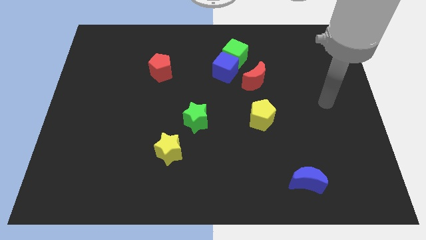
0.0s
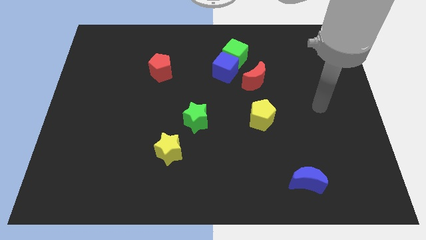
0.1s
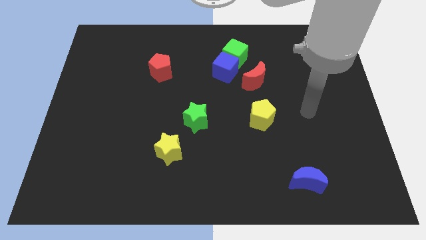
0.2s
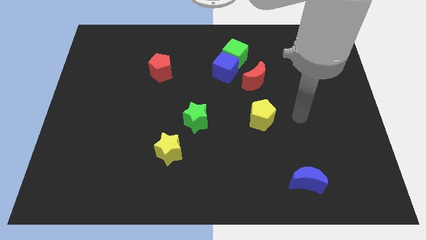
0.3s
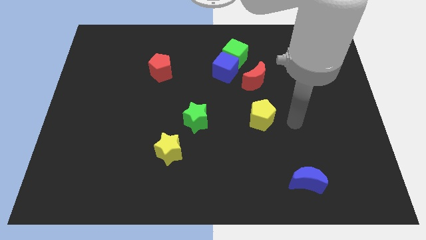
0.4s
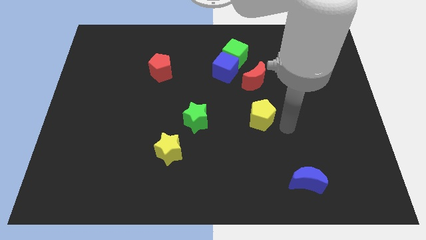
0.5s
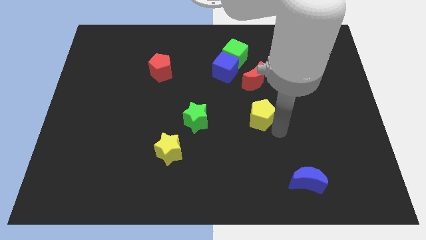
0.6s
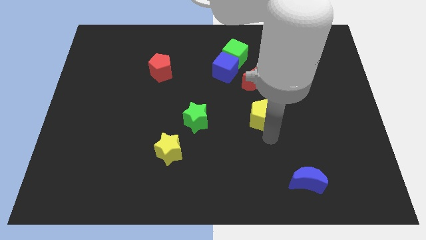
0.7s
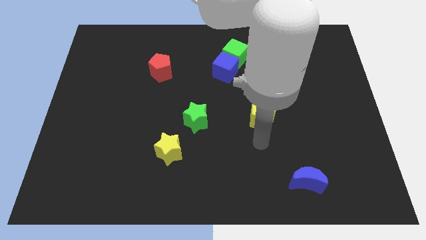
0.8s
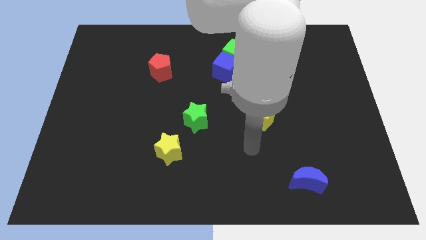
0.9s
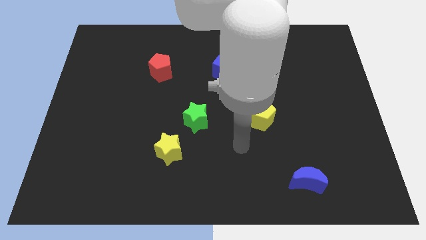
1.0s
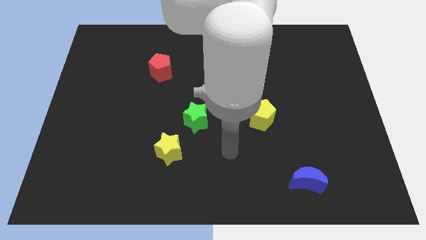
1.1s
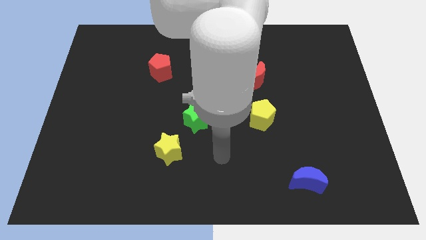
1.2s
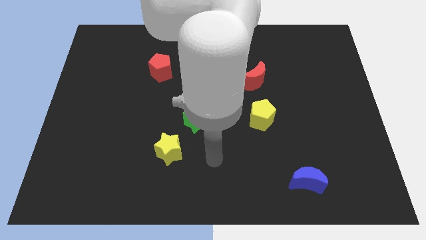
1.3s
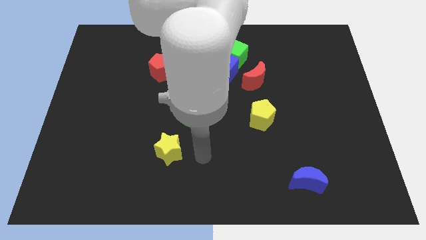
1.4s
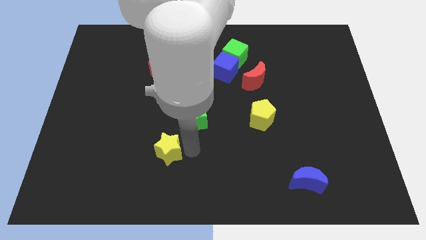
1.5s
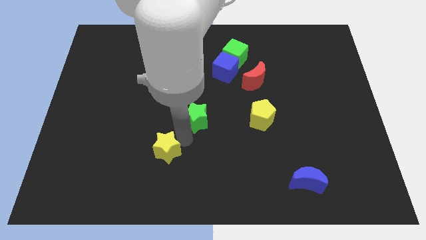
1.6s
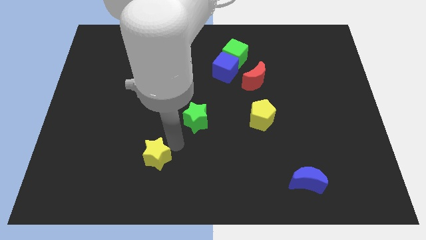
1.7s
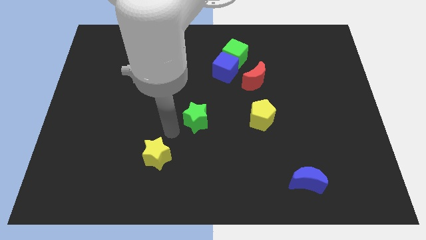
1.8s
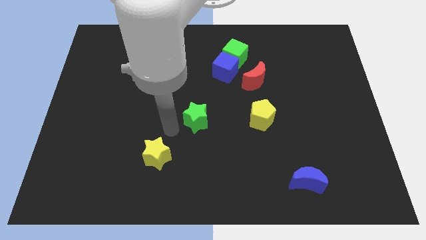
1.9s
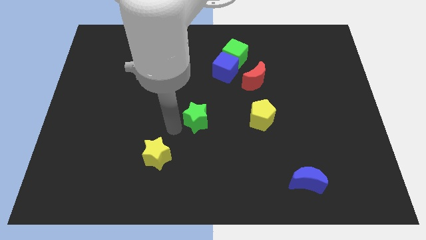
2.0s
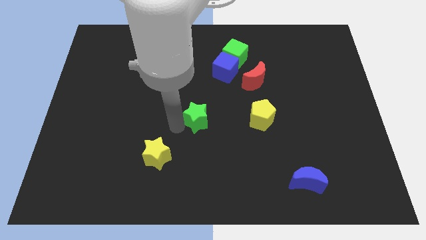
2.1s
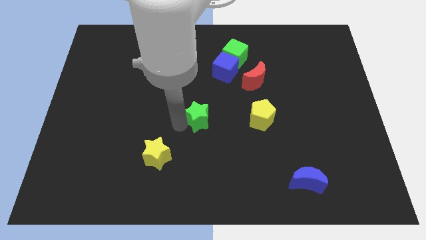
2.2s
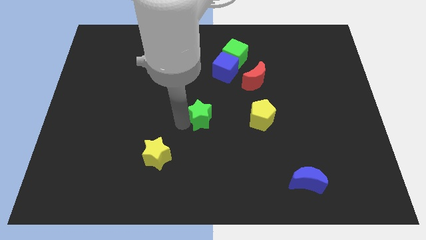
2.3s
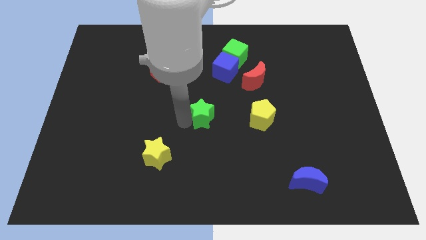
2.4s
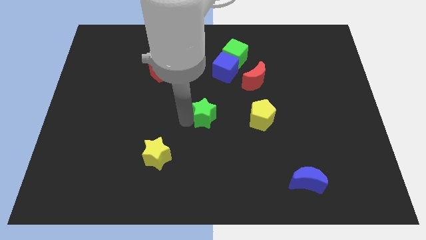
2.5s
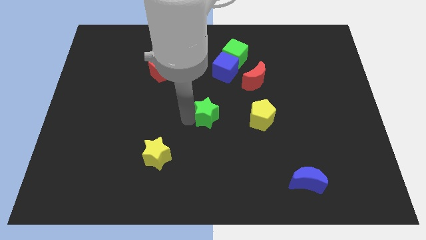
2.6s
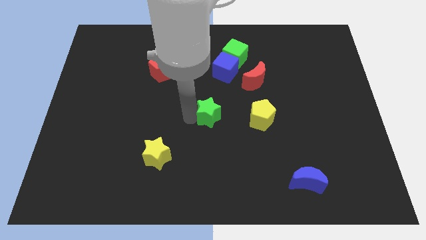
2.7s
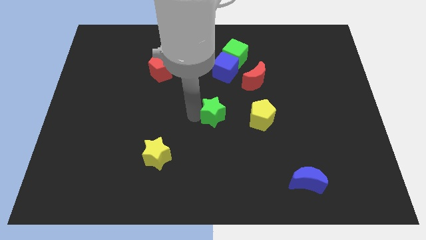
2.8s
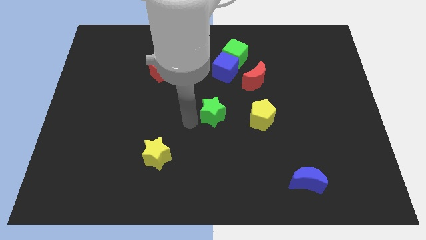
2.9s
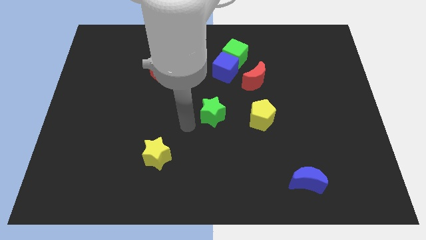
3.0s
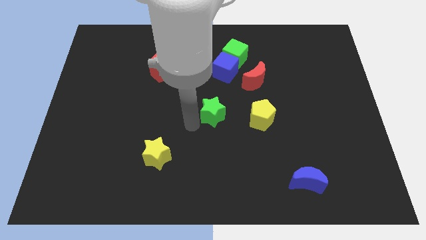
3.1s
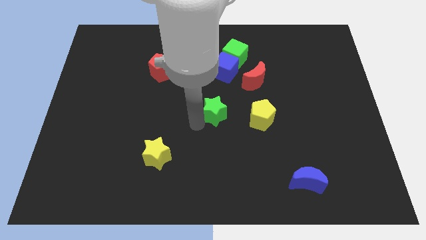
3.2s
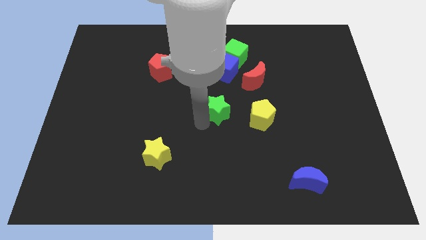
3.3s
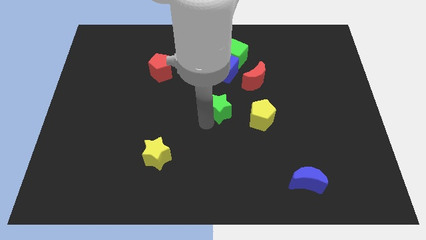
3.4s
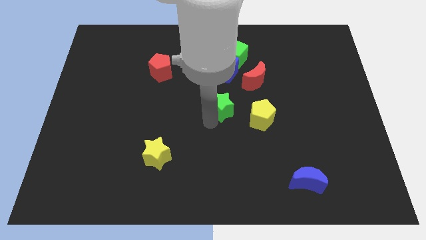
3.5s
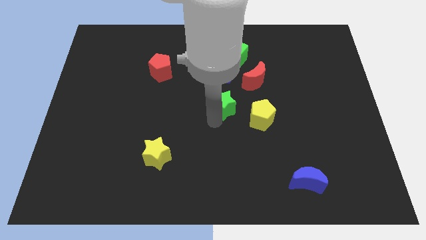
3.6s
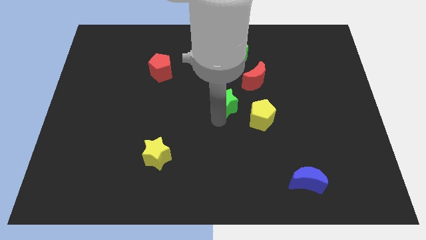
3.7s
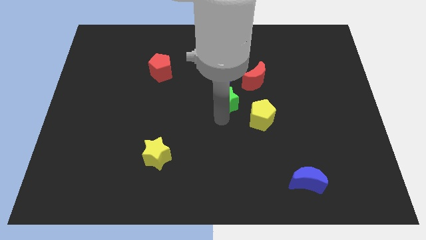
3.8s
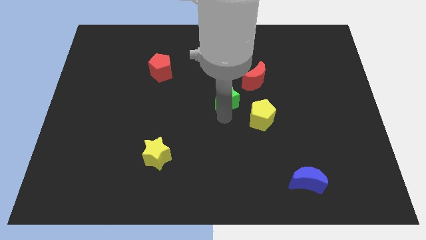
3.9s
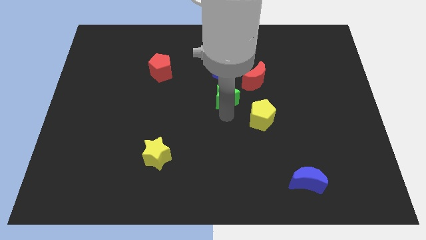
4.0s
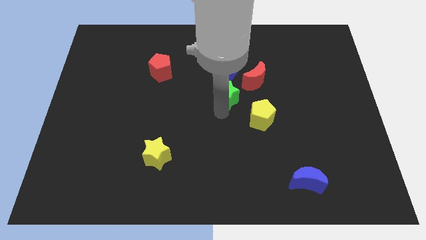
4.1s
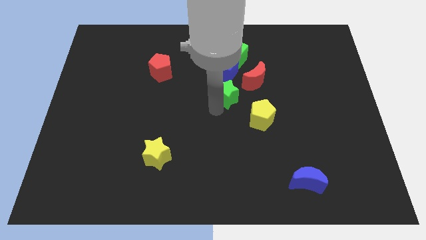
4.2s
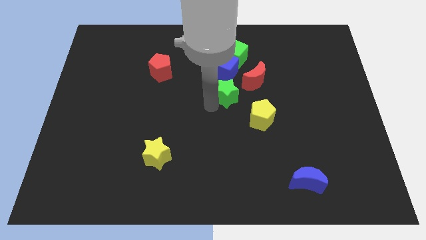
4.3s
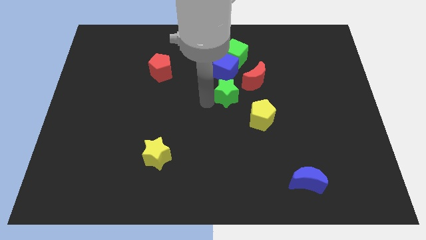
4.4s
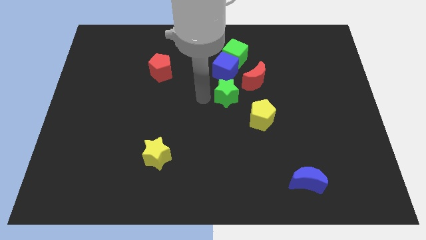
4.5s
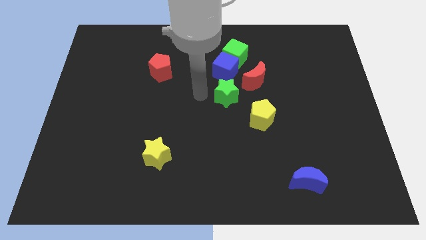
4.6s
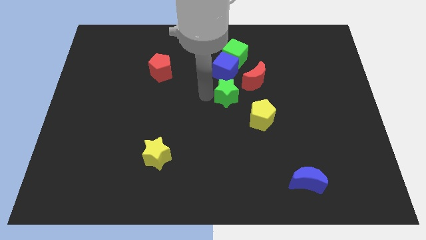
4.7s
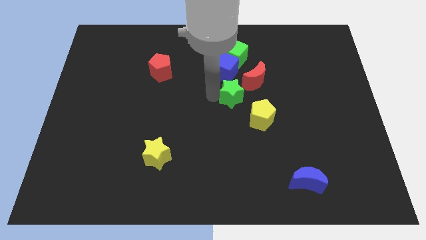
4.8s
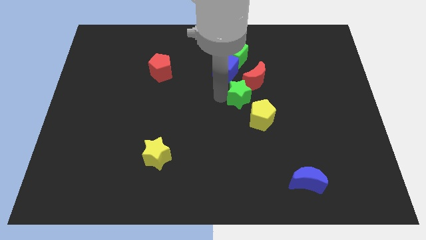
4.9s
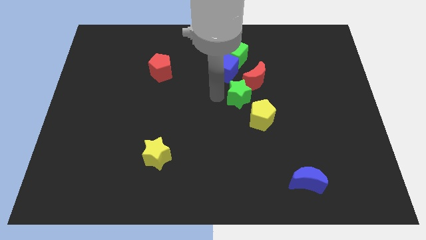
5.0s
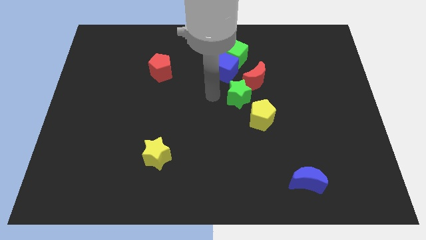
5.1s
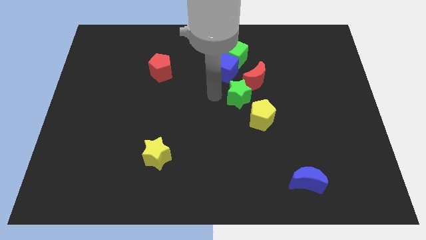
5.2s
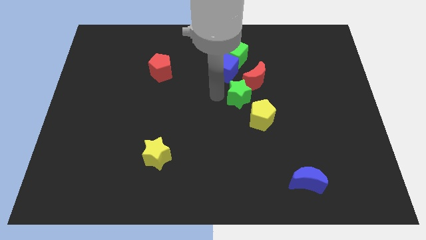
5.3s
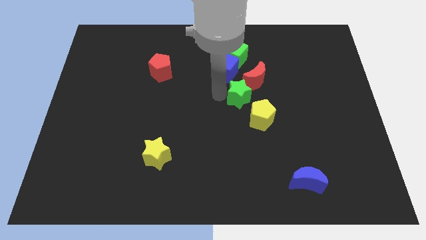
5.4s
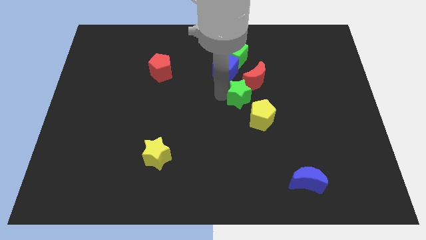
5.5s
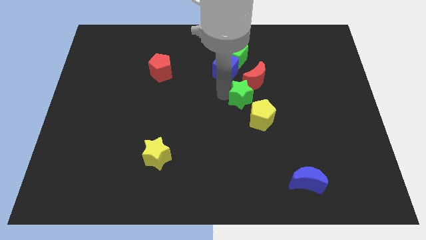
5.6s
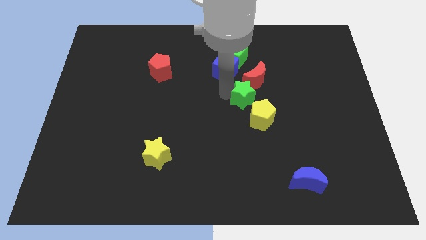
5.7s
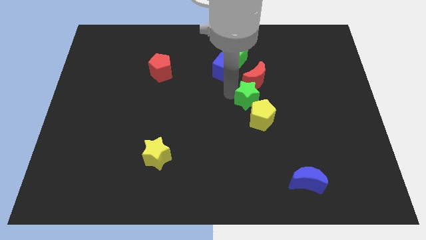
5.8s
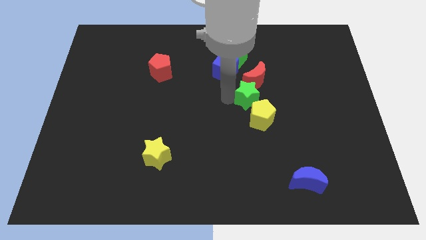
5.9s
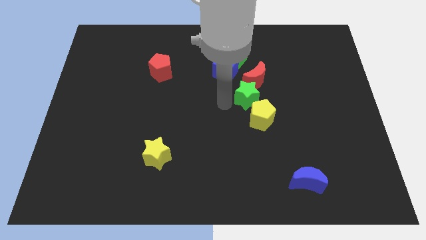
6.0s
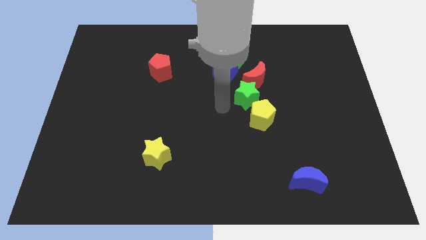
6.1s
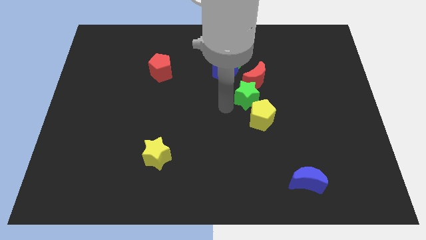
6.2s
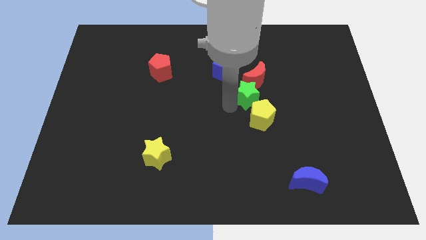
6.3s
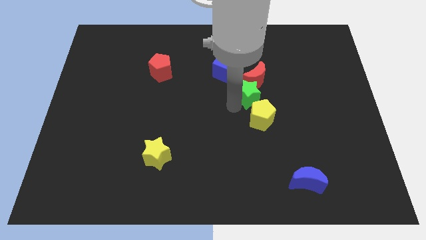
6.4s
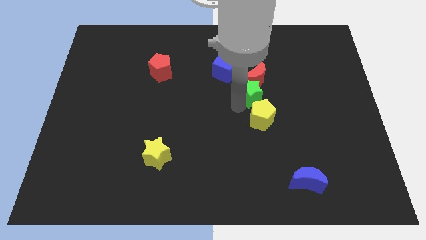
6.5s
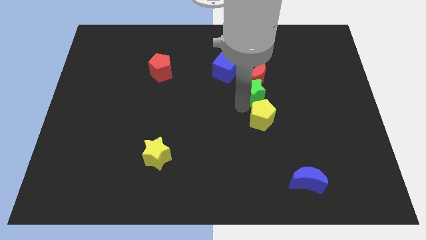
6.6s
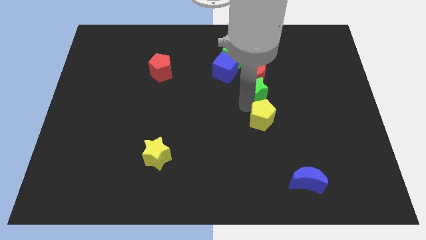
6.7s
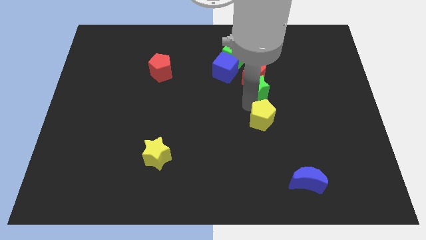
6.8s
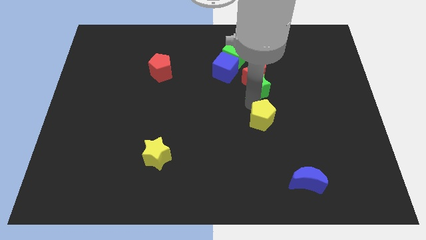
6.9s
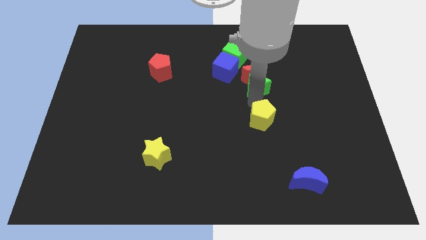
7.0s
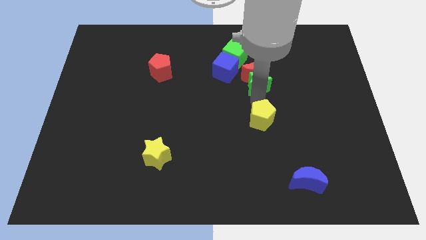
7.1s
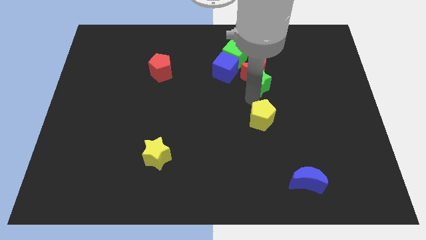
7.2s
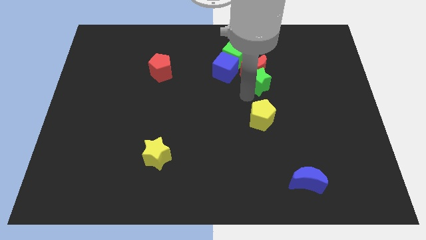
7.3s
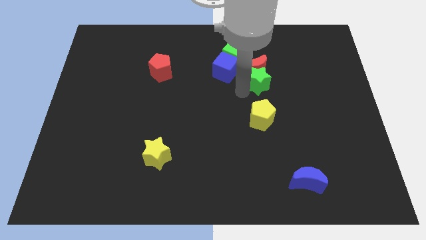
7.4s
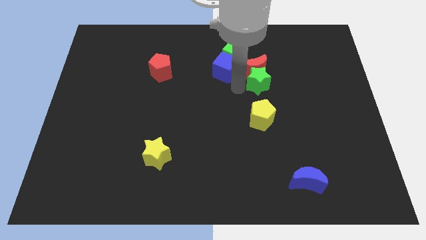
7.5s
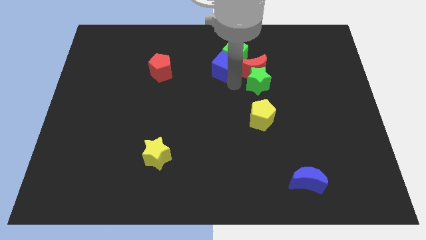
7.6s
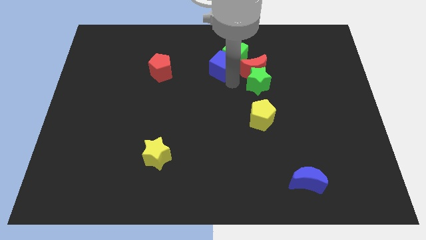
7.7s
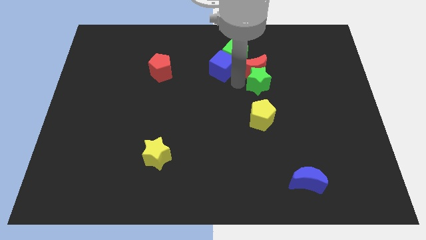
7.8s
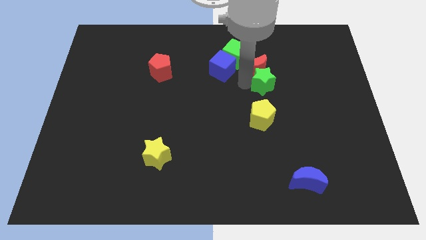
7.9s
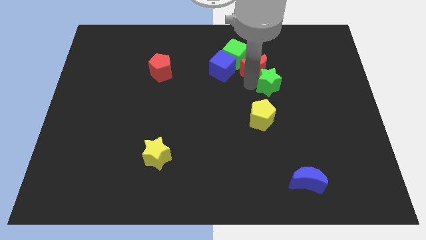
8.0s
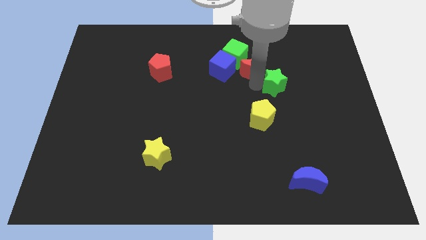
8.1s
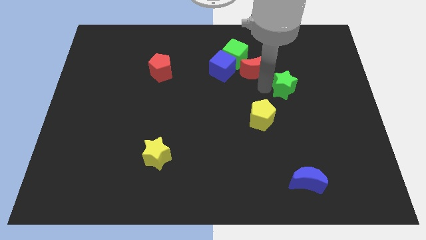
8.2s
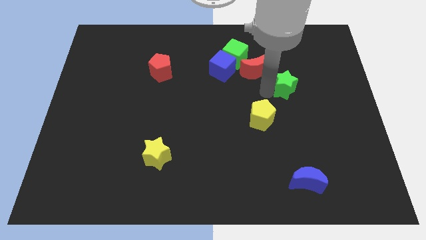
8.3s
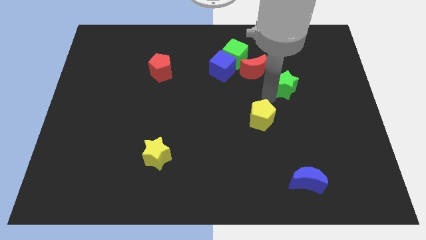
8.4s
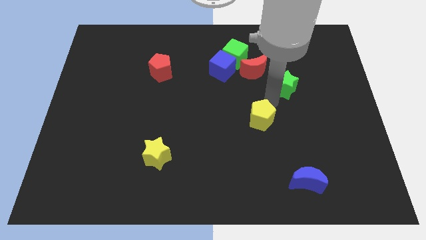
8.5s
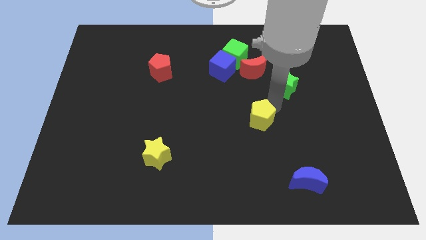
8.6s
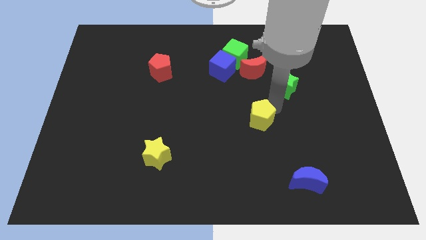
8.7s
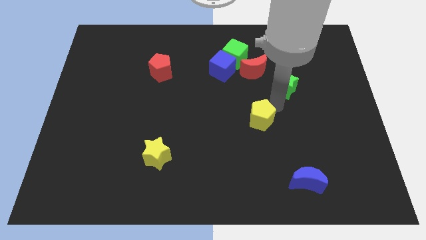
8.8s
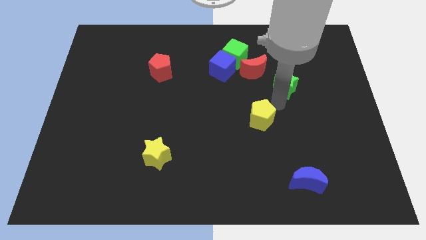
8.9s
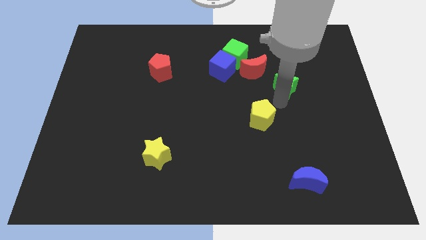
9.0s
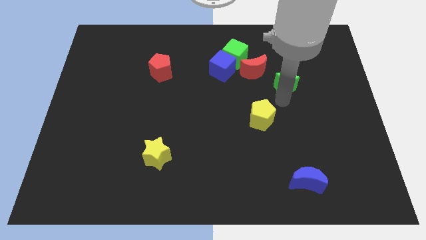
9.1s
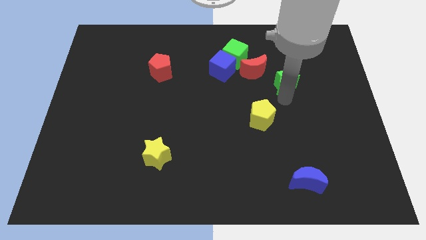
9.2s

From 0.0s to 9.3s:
put the green star right of the red moon
